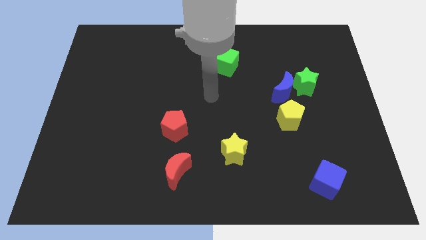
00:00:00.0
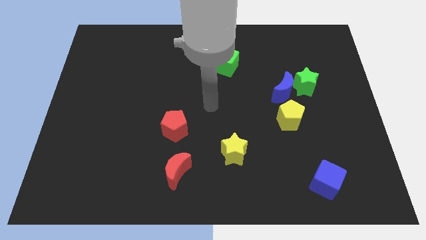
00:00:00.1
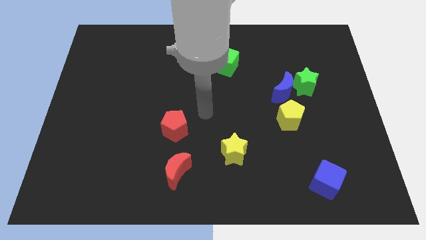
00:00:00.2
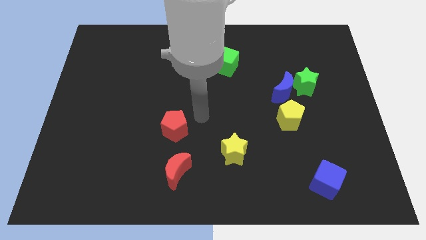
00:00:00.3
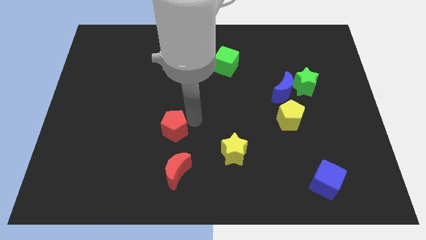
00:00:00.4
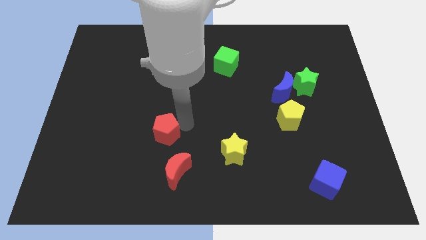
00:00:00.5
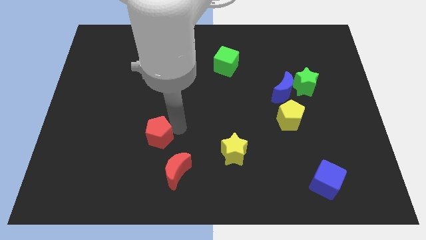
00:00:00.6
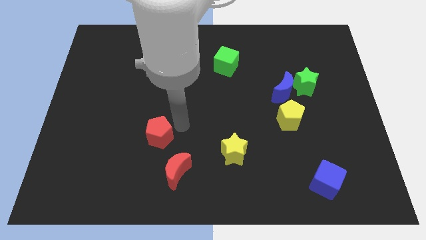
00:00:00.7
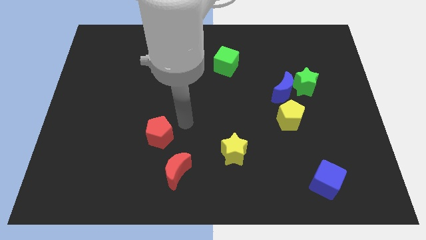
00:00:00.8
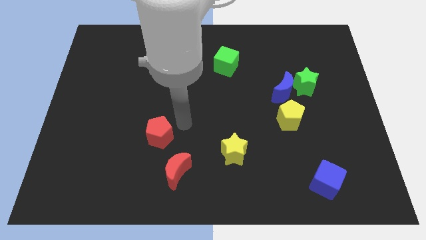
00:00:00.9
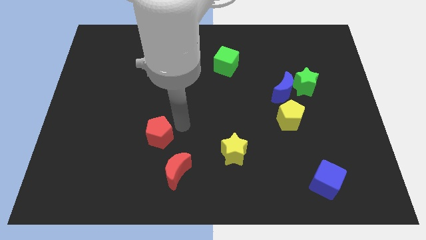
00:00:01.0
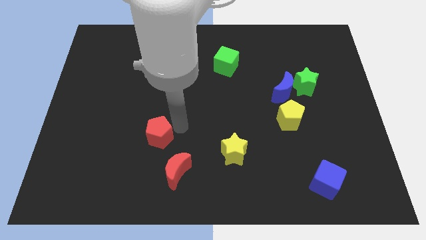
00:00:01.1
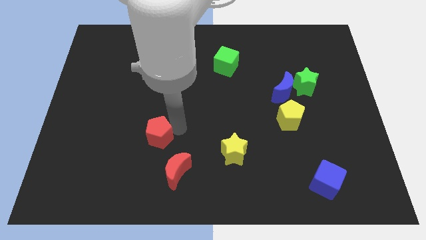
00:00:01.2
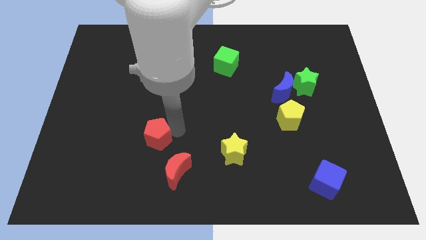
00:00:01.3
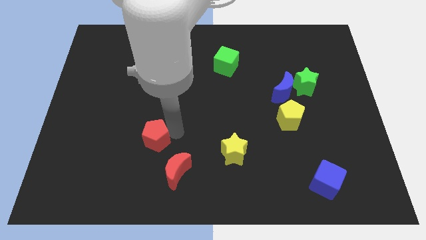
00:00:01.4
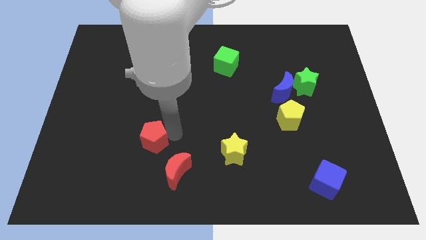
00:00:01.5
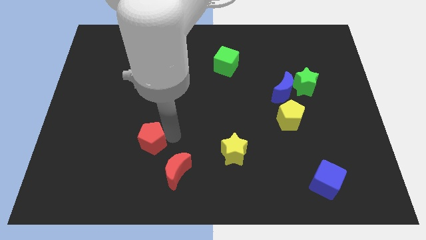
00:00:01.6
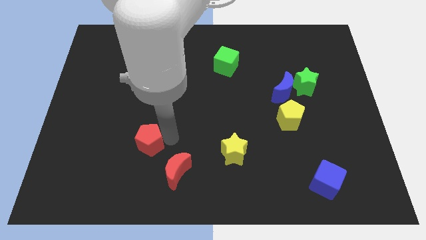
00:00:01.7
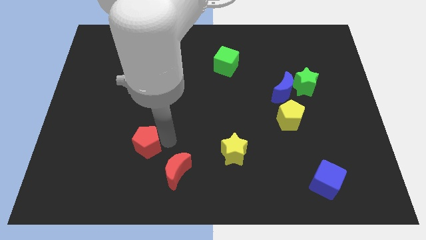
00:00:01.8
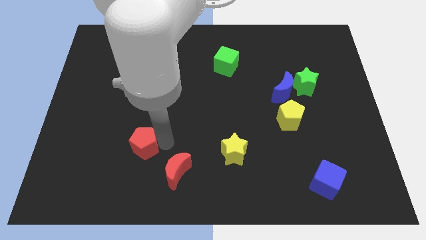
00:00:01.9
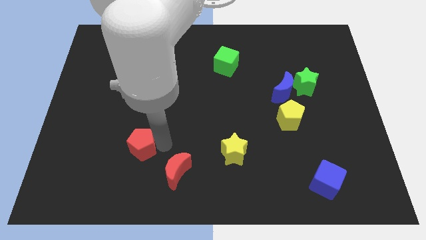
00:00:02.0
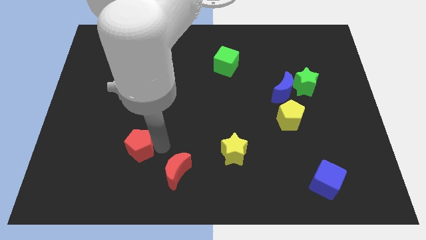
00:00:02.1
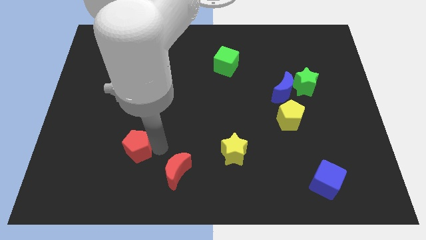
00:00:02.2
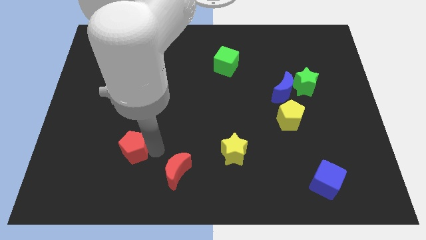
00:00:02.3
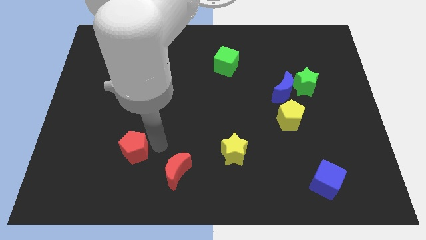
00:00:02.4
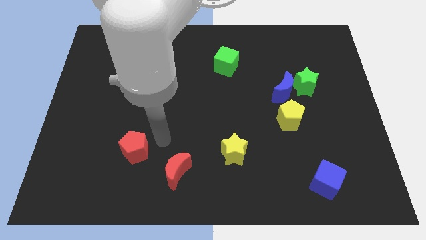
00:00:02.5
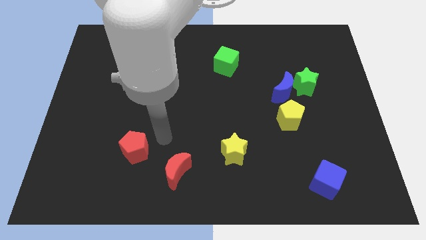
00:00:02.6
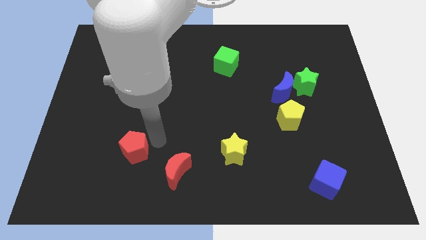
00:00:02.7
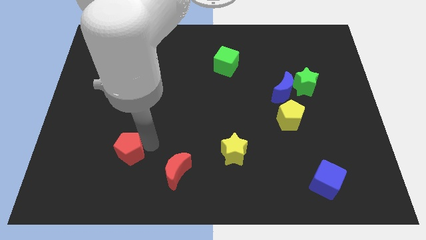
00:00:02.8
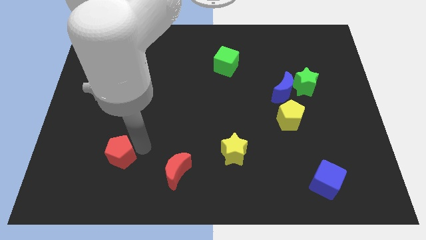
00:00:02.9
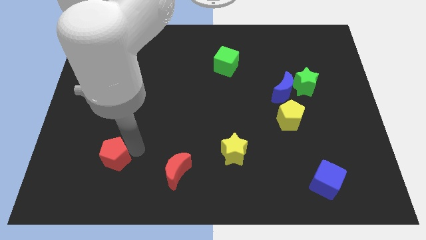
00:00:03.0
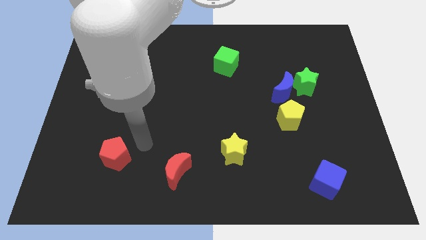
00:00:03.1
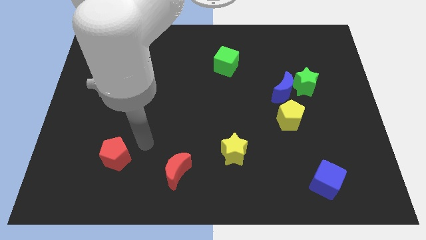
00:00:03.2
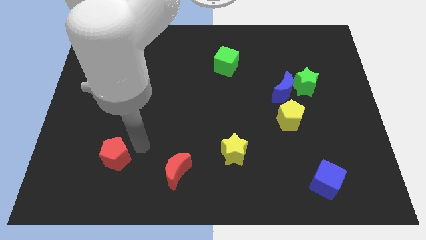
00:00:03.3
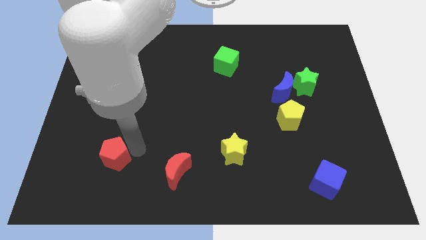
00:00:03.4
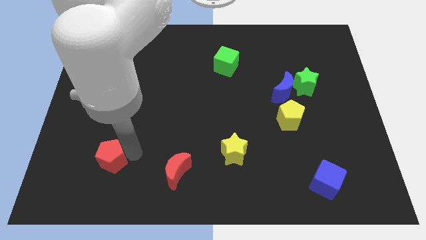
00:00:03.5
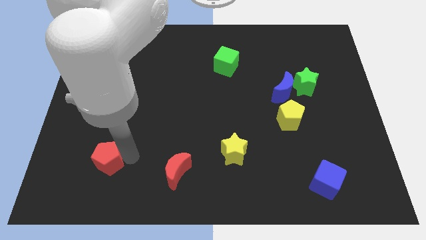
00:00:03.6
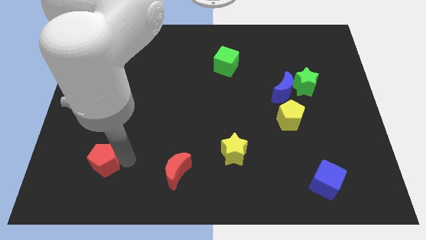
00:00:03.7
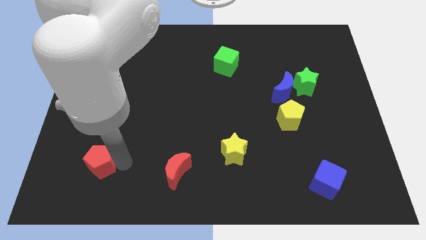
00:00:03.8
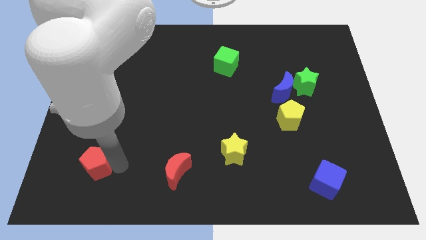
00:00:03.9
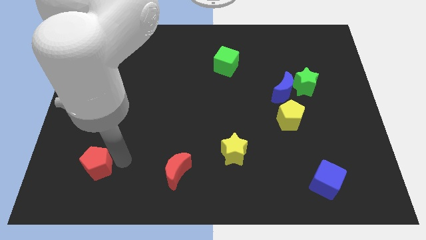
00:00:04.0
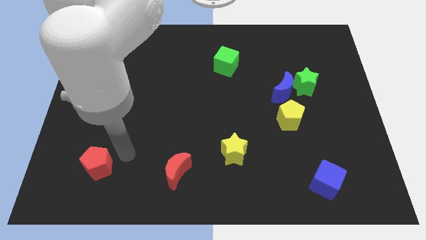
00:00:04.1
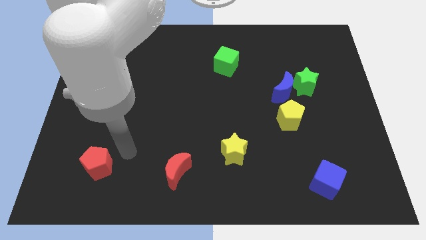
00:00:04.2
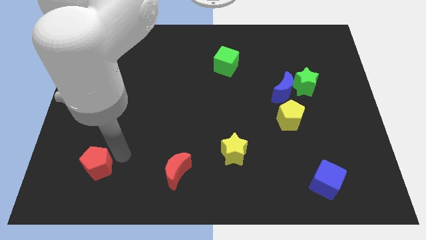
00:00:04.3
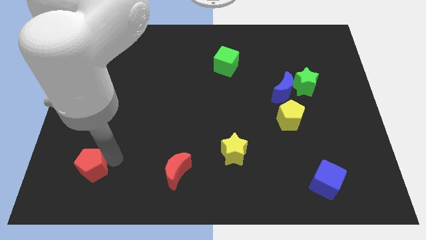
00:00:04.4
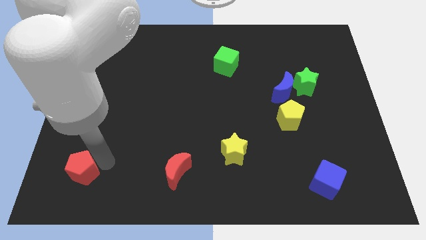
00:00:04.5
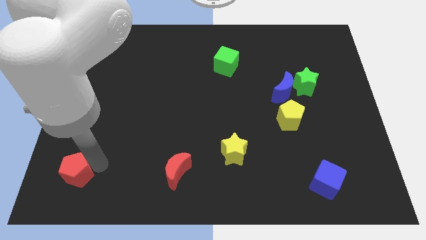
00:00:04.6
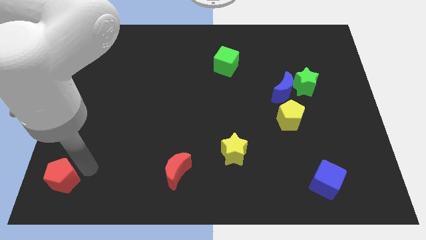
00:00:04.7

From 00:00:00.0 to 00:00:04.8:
put the red pentagon to the bottom left of the board

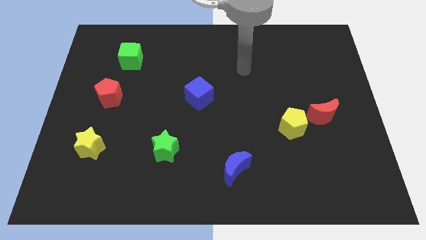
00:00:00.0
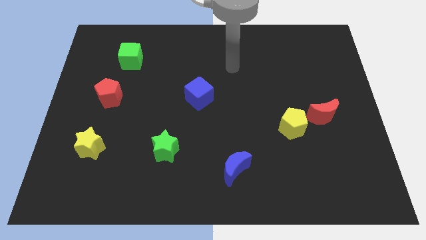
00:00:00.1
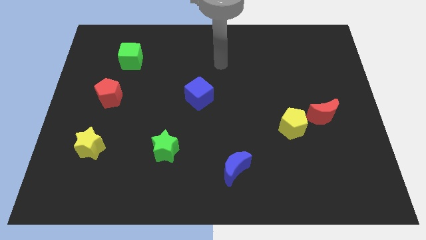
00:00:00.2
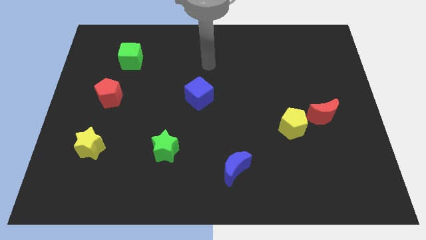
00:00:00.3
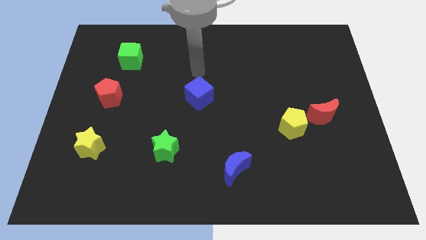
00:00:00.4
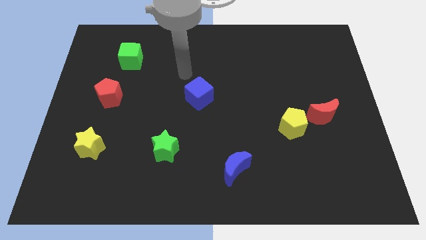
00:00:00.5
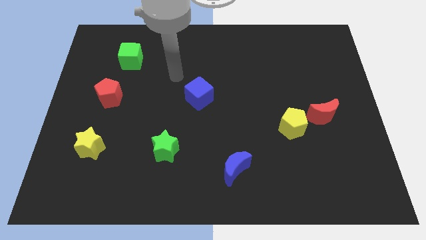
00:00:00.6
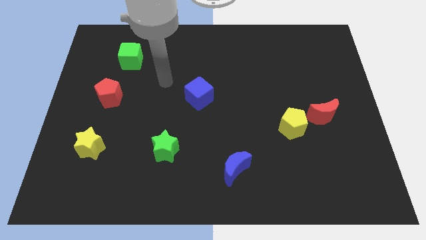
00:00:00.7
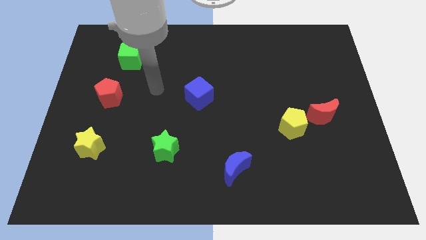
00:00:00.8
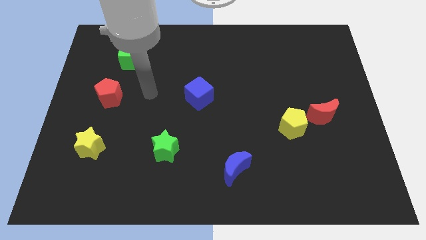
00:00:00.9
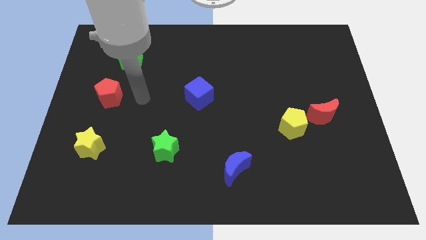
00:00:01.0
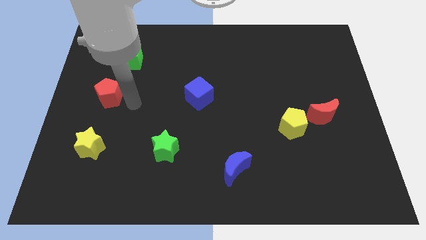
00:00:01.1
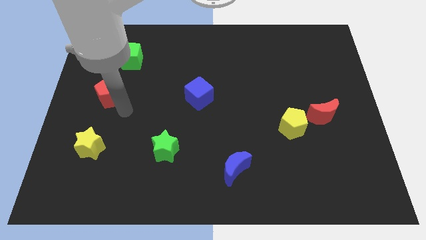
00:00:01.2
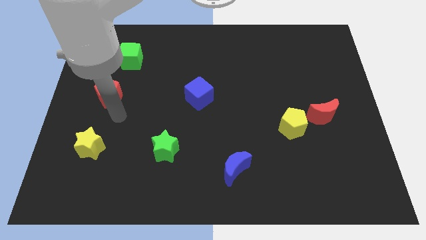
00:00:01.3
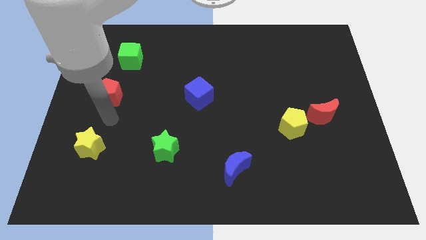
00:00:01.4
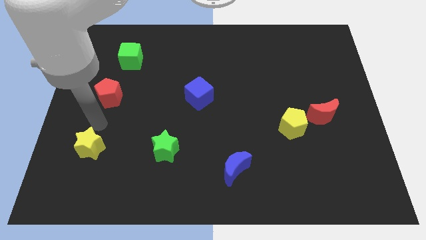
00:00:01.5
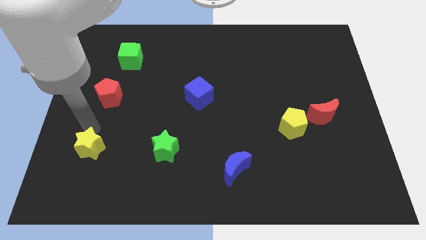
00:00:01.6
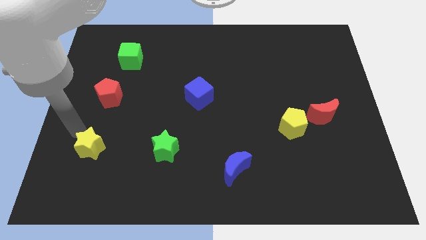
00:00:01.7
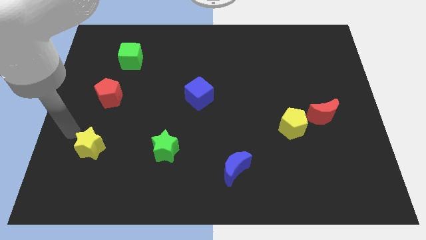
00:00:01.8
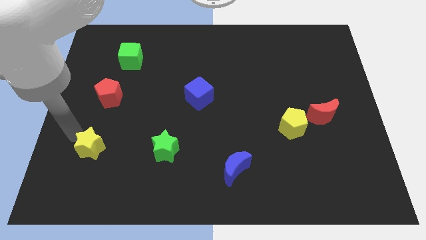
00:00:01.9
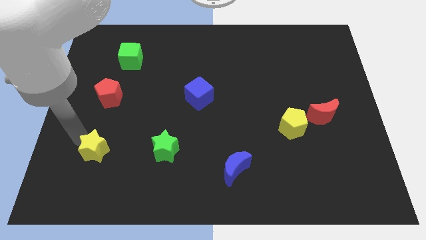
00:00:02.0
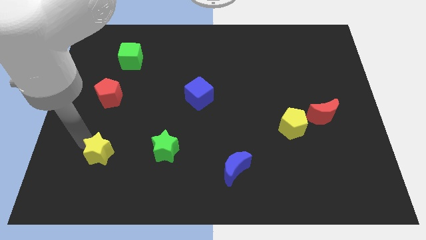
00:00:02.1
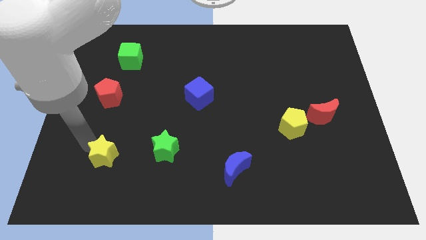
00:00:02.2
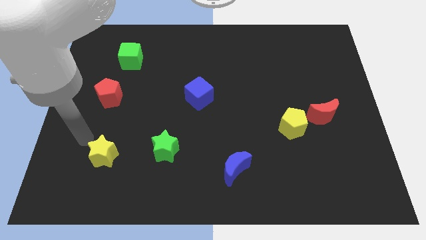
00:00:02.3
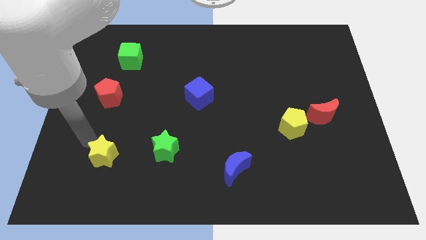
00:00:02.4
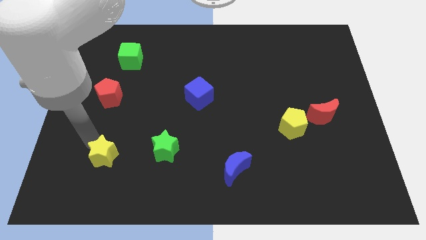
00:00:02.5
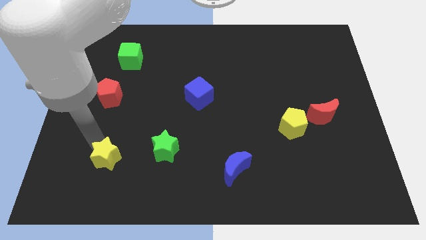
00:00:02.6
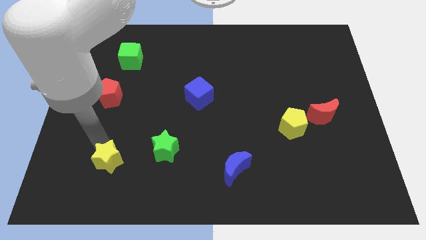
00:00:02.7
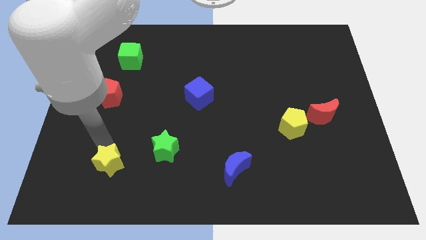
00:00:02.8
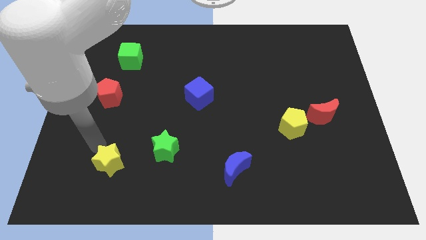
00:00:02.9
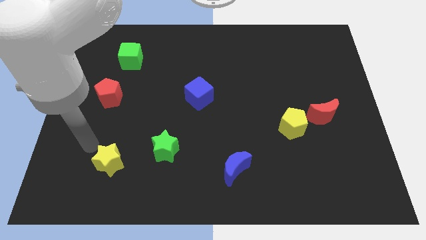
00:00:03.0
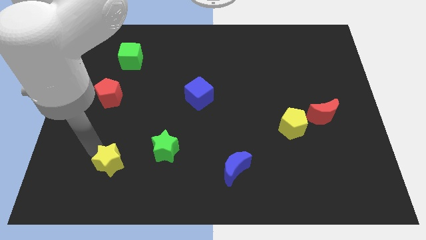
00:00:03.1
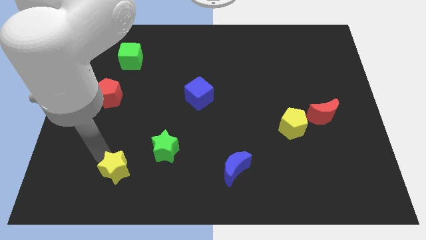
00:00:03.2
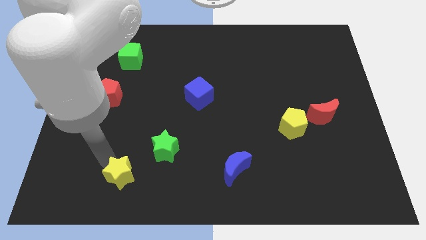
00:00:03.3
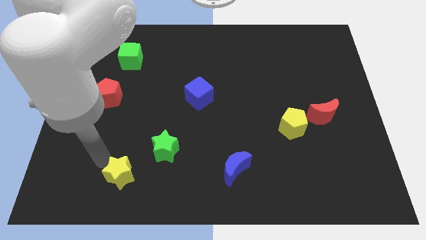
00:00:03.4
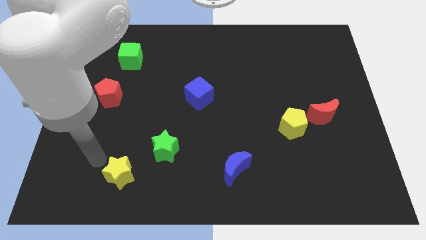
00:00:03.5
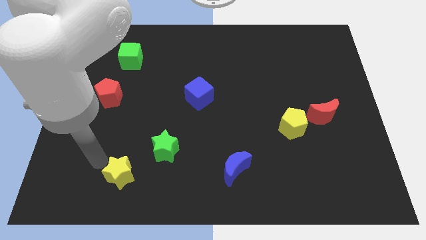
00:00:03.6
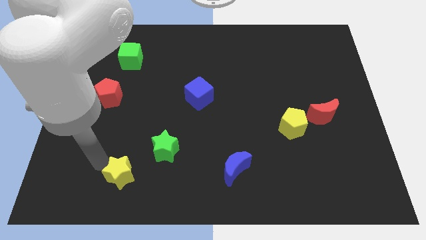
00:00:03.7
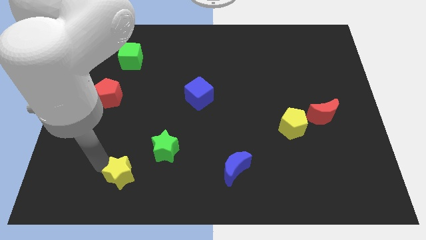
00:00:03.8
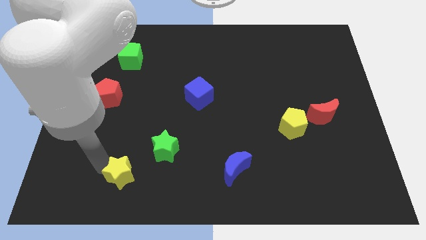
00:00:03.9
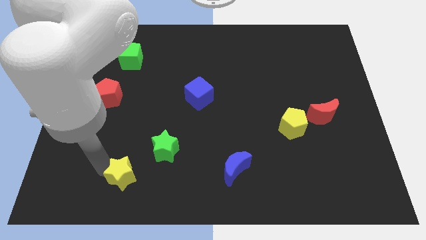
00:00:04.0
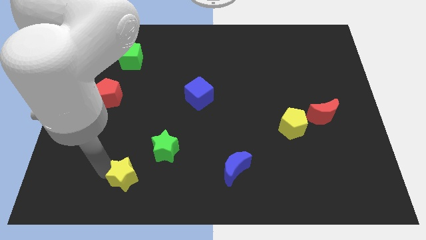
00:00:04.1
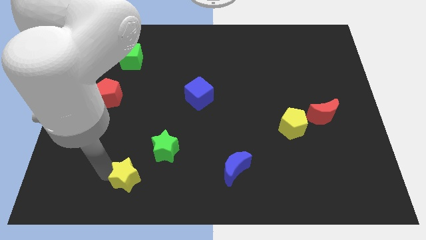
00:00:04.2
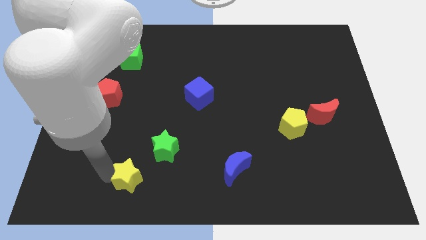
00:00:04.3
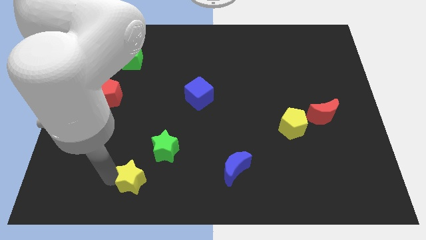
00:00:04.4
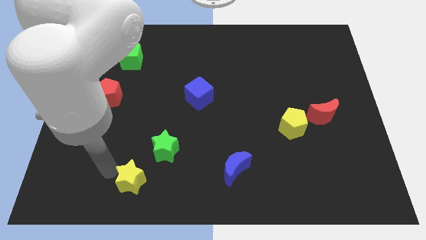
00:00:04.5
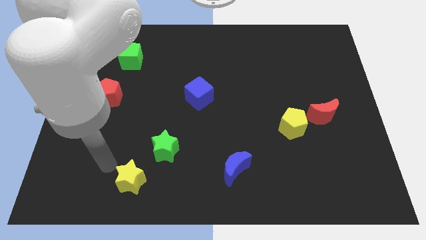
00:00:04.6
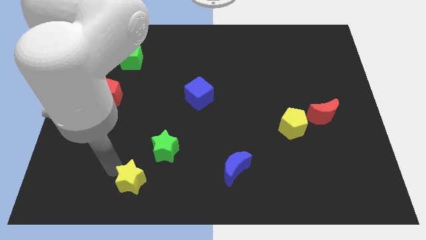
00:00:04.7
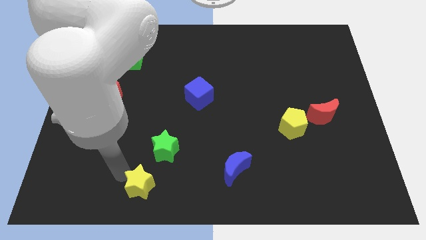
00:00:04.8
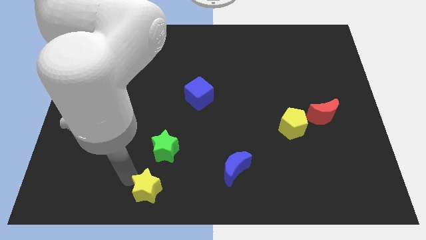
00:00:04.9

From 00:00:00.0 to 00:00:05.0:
move the yellow star to the bottom side
